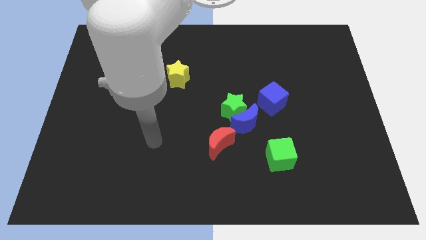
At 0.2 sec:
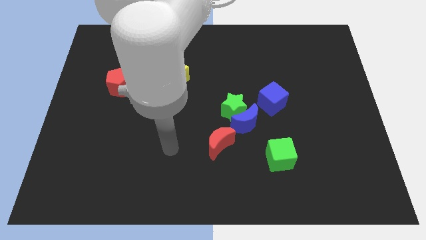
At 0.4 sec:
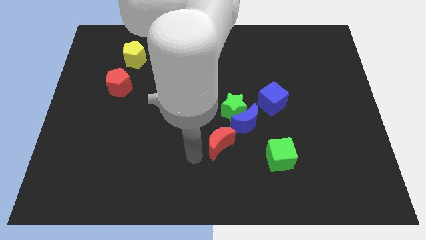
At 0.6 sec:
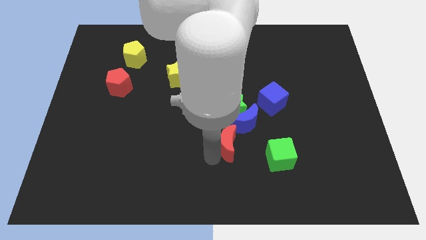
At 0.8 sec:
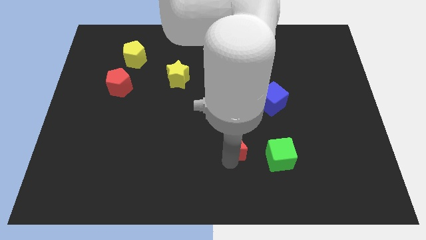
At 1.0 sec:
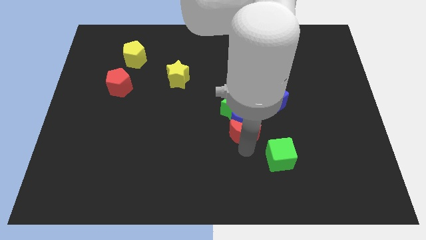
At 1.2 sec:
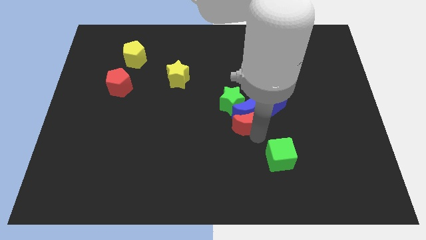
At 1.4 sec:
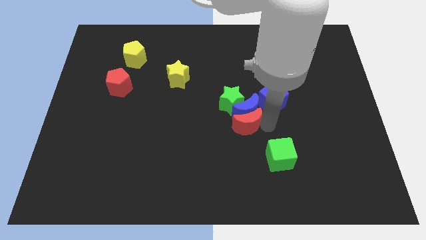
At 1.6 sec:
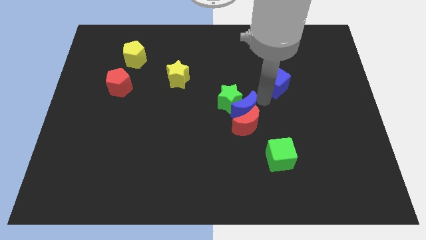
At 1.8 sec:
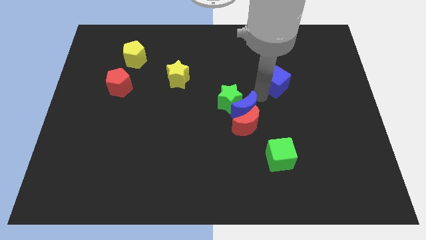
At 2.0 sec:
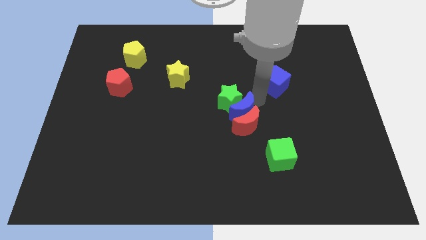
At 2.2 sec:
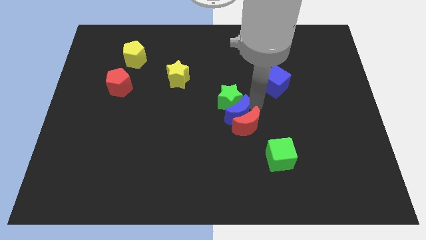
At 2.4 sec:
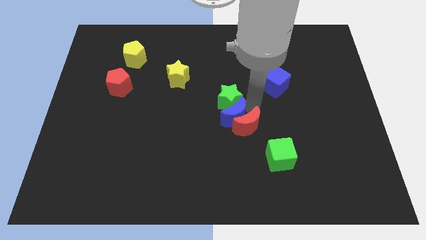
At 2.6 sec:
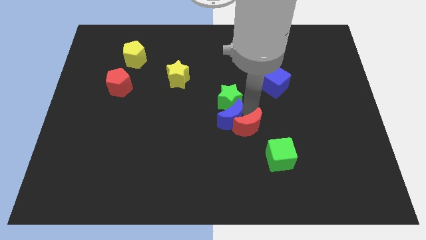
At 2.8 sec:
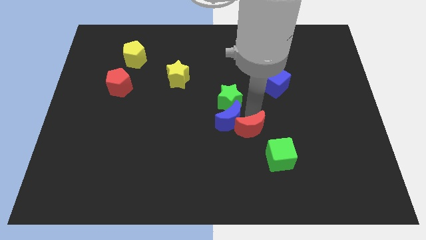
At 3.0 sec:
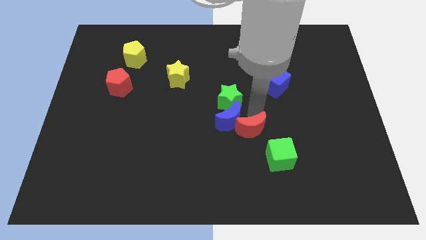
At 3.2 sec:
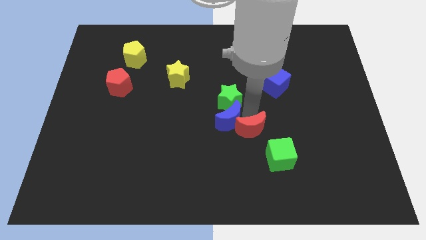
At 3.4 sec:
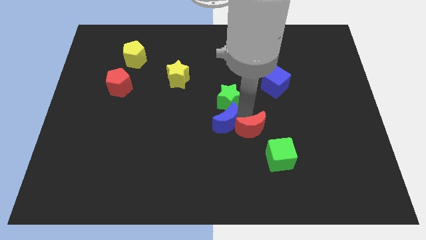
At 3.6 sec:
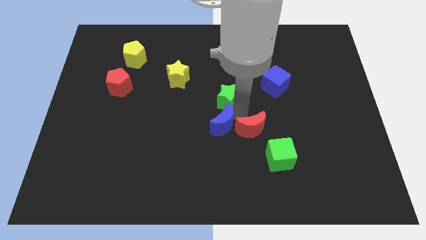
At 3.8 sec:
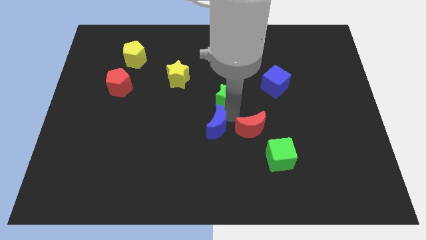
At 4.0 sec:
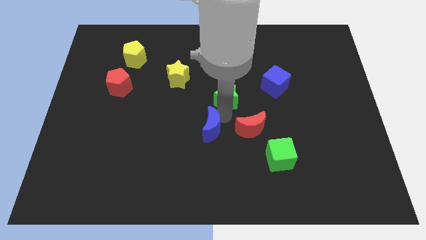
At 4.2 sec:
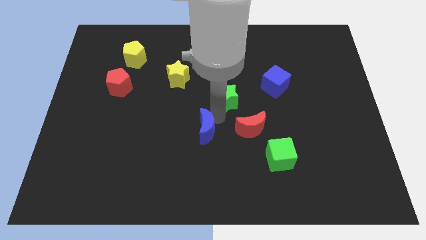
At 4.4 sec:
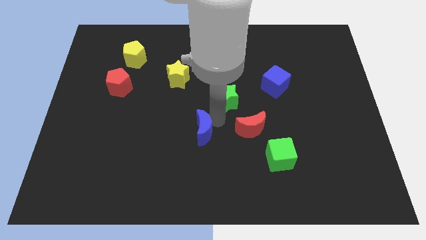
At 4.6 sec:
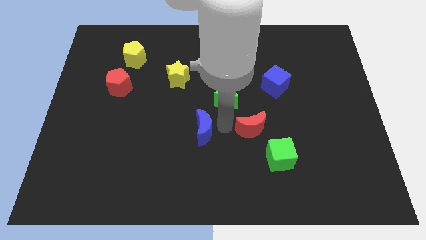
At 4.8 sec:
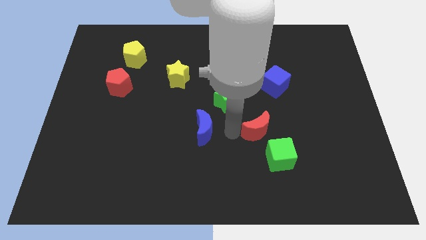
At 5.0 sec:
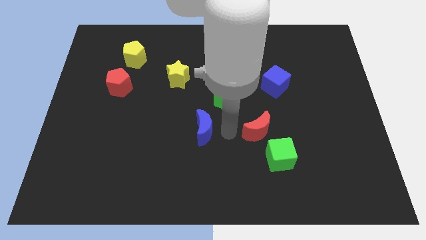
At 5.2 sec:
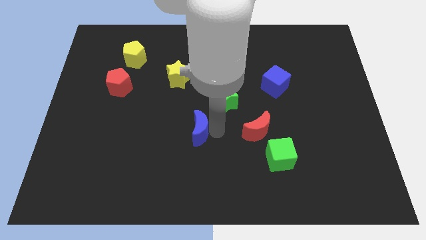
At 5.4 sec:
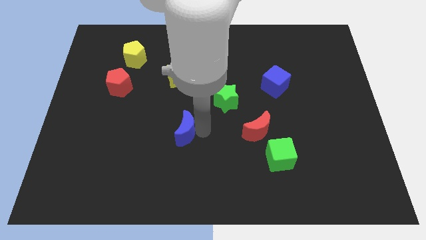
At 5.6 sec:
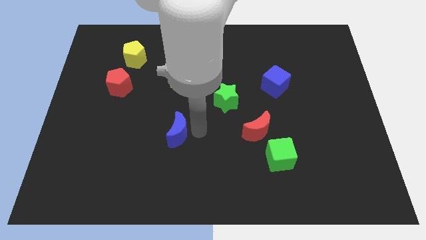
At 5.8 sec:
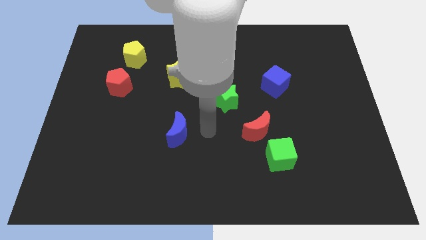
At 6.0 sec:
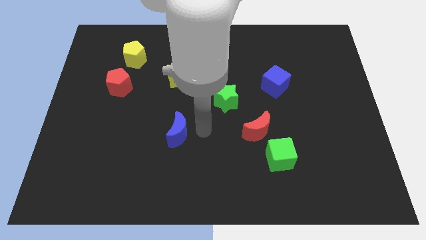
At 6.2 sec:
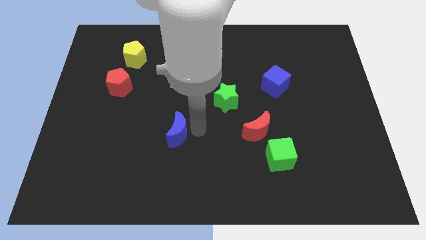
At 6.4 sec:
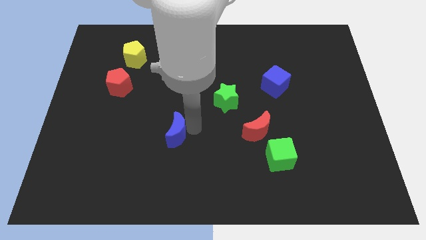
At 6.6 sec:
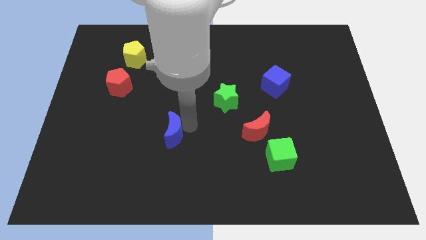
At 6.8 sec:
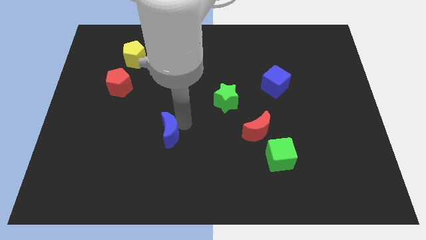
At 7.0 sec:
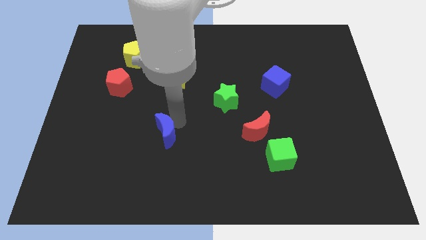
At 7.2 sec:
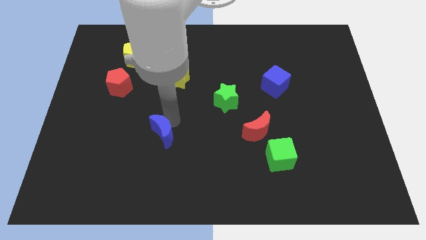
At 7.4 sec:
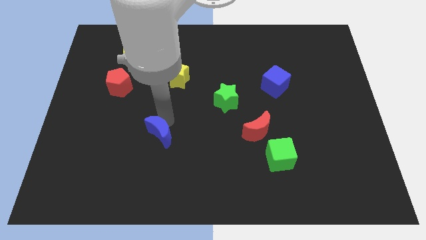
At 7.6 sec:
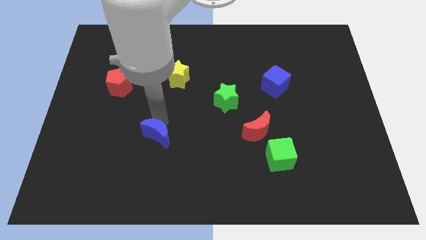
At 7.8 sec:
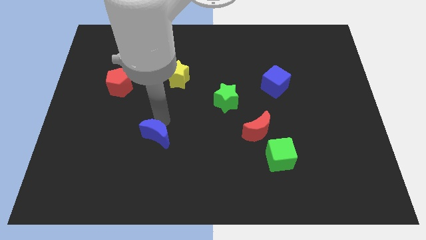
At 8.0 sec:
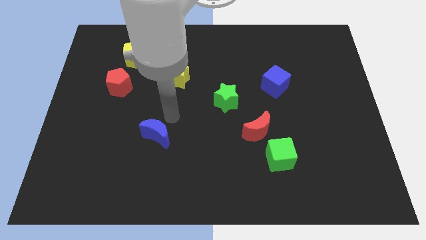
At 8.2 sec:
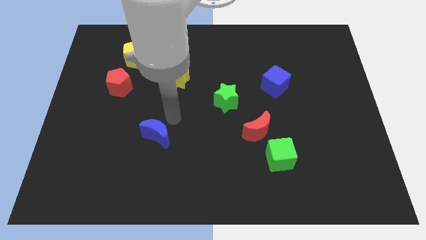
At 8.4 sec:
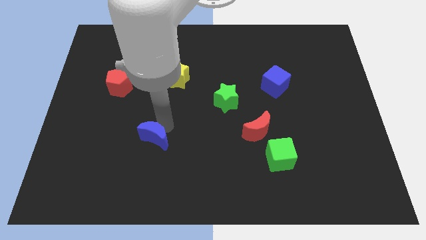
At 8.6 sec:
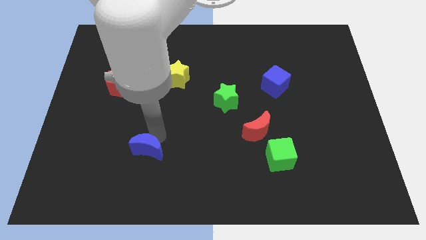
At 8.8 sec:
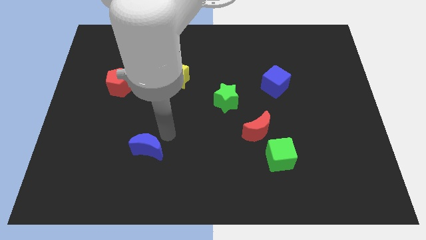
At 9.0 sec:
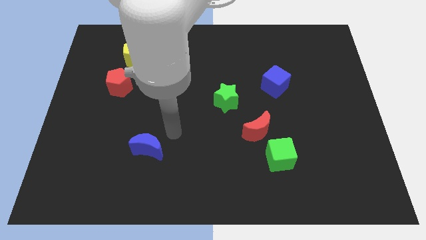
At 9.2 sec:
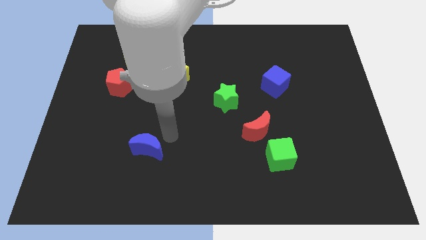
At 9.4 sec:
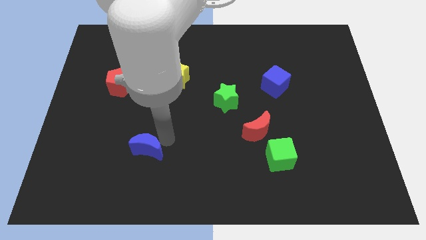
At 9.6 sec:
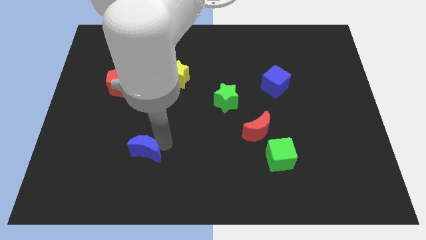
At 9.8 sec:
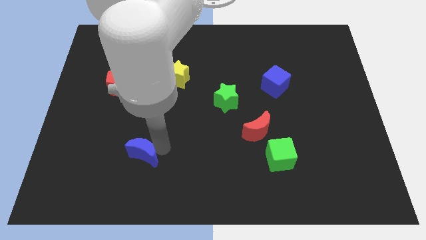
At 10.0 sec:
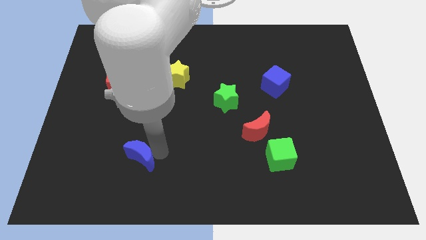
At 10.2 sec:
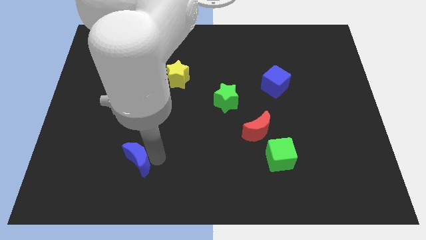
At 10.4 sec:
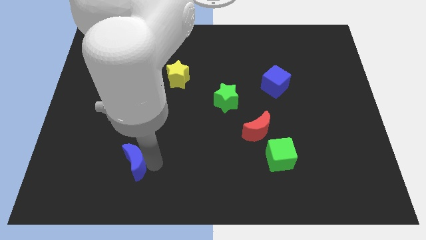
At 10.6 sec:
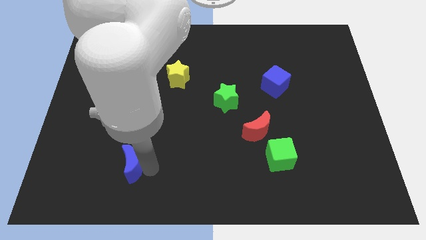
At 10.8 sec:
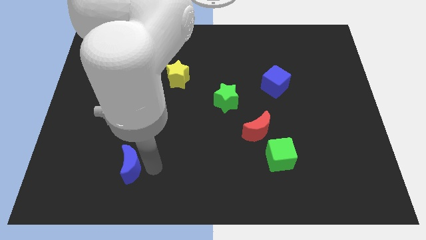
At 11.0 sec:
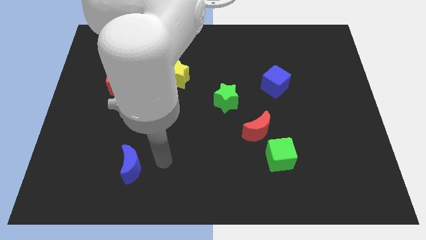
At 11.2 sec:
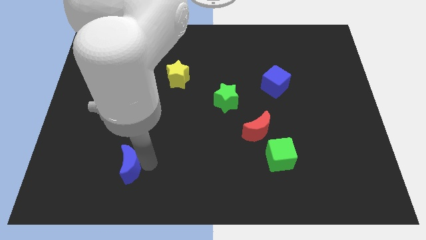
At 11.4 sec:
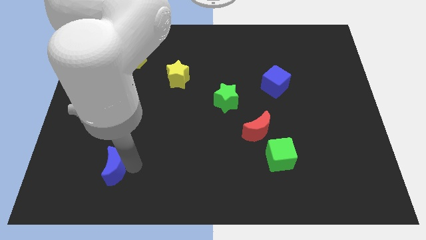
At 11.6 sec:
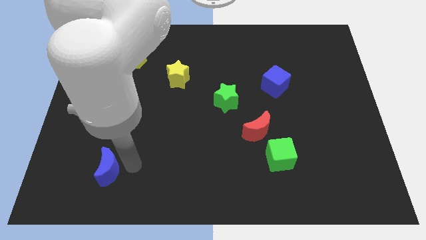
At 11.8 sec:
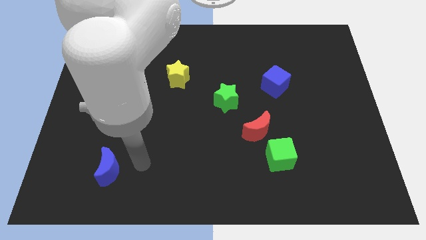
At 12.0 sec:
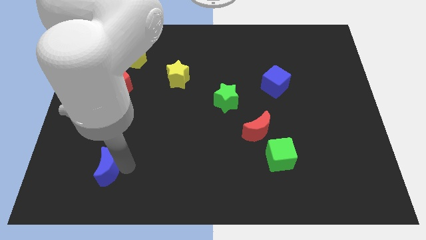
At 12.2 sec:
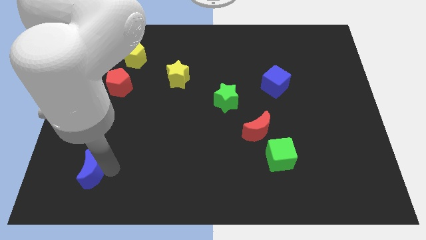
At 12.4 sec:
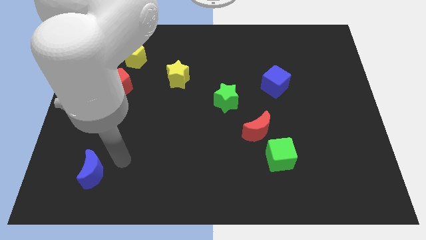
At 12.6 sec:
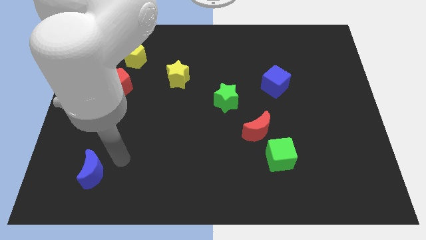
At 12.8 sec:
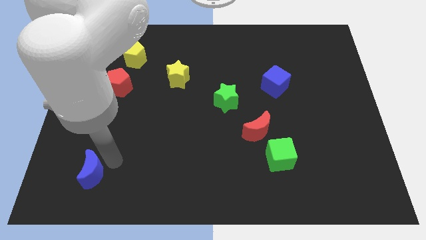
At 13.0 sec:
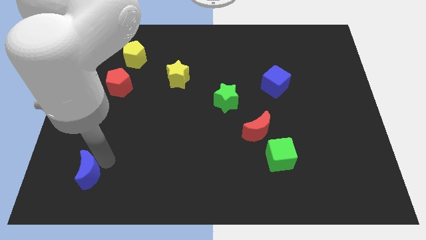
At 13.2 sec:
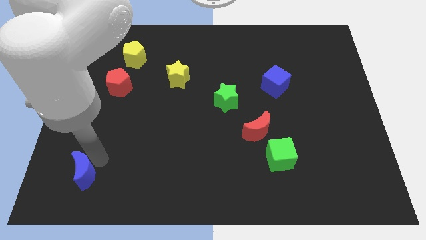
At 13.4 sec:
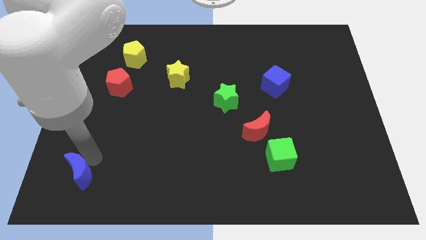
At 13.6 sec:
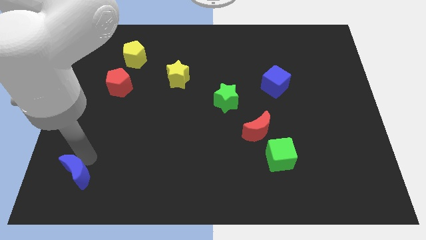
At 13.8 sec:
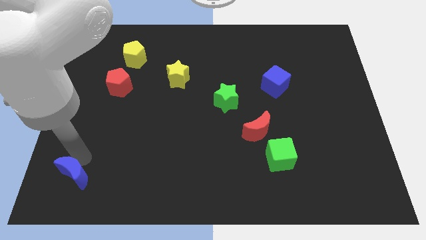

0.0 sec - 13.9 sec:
push the blue moon to the bottom left of the board
